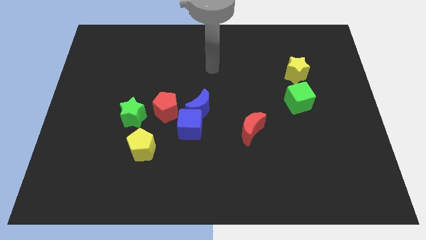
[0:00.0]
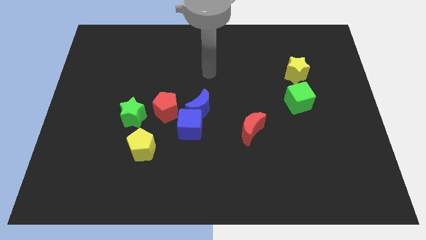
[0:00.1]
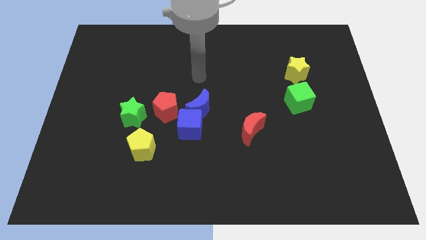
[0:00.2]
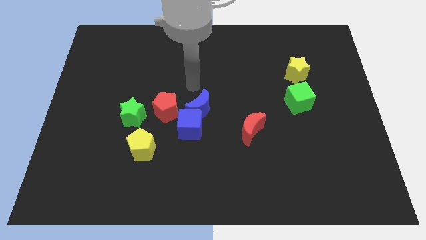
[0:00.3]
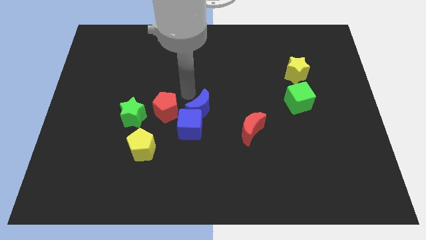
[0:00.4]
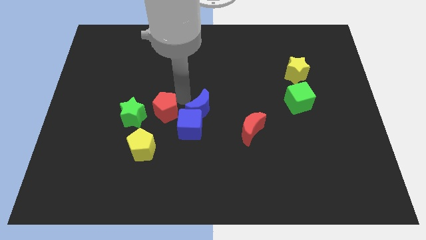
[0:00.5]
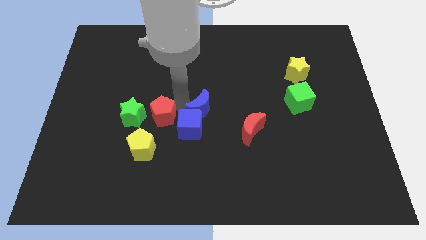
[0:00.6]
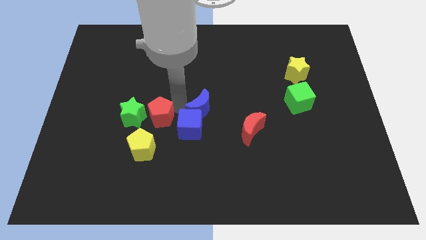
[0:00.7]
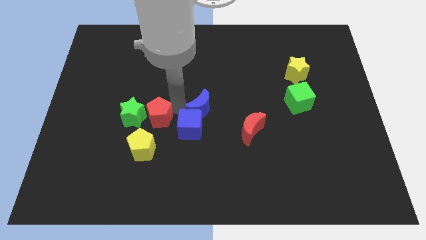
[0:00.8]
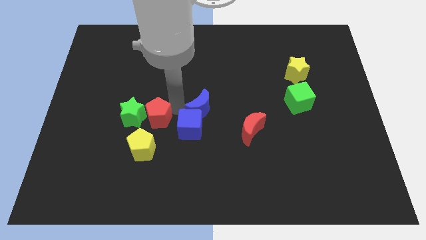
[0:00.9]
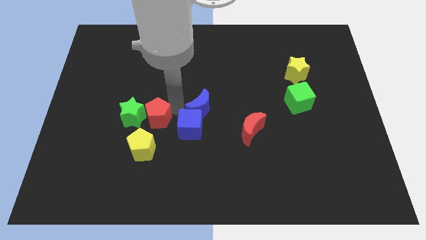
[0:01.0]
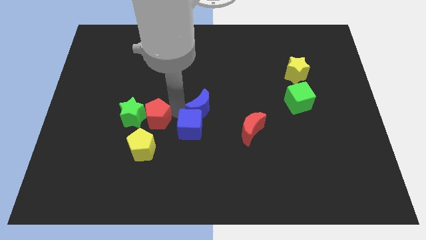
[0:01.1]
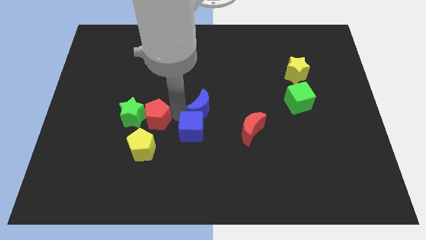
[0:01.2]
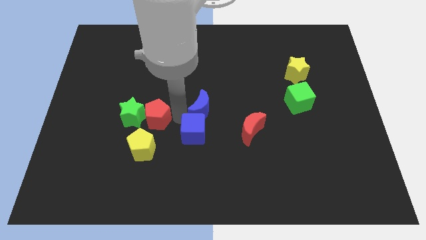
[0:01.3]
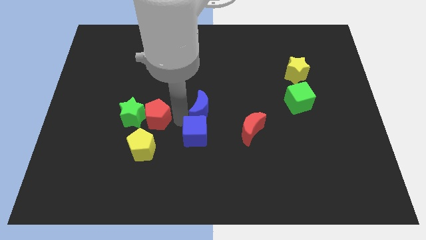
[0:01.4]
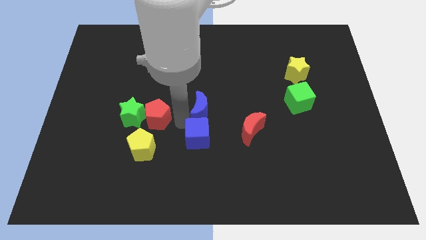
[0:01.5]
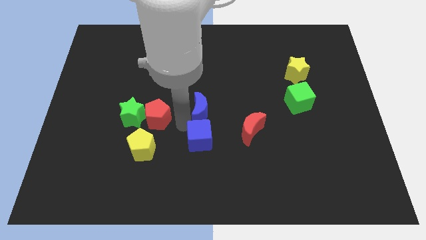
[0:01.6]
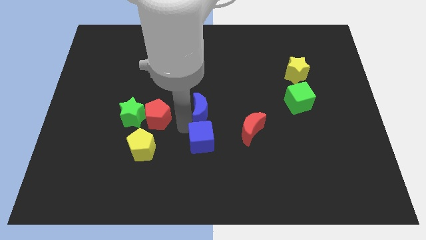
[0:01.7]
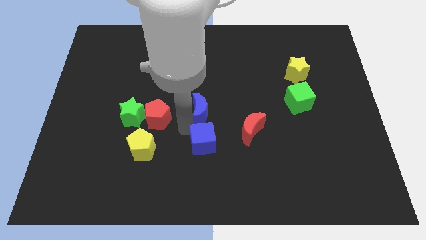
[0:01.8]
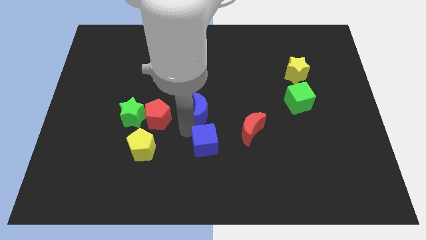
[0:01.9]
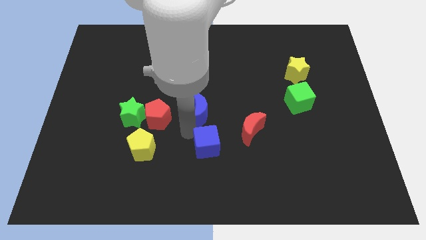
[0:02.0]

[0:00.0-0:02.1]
move the blue cube away from the blue moon and red pentagon

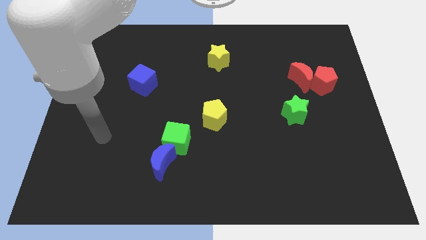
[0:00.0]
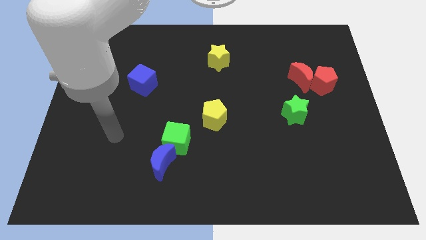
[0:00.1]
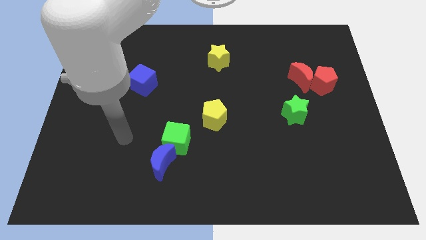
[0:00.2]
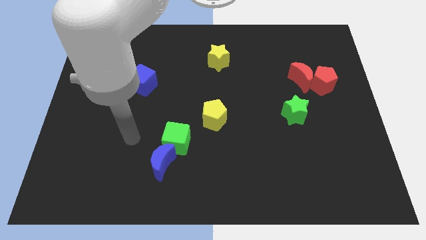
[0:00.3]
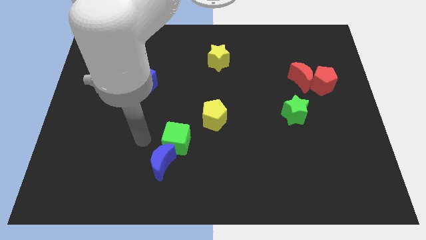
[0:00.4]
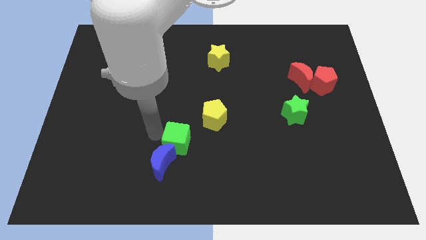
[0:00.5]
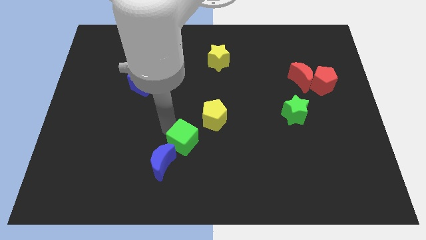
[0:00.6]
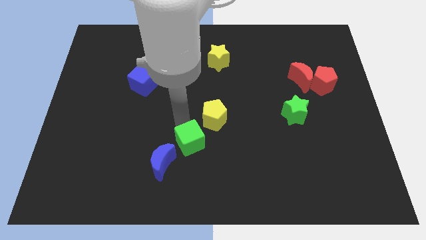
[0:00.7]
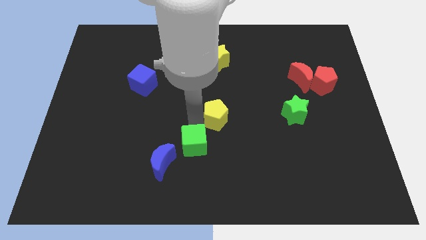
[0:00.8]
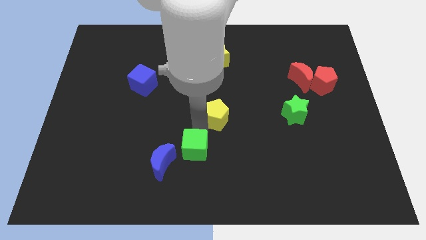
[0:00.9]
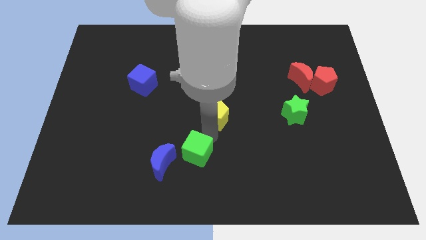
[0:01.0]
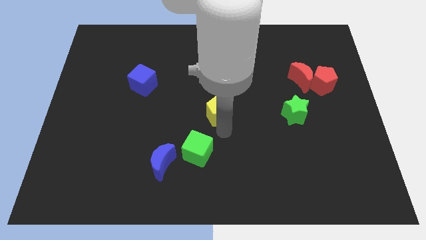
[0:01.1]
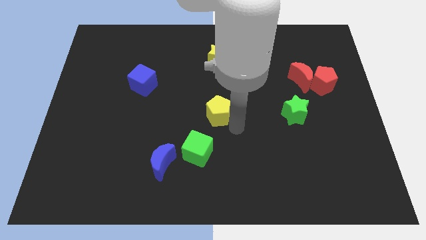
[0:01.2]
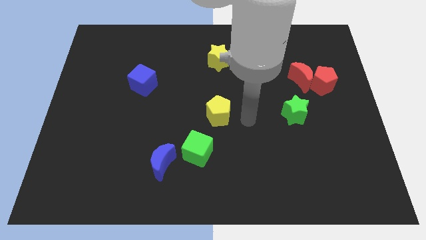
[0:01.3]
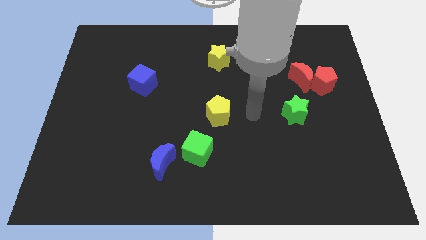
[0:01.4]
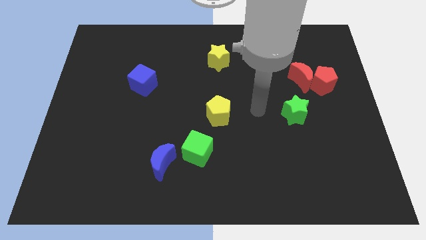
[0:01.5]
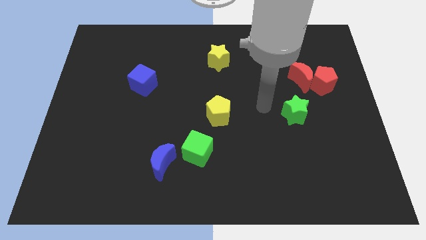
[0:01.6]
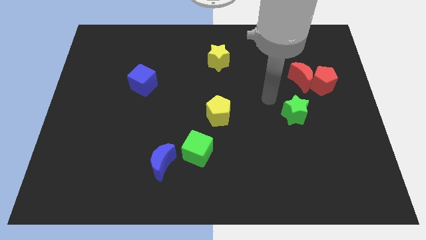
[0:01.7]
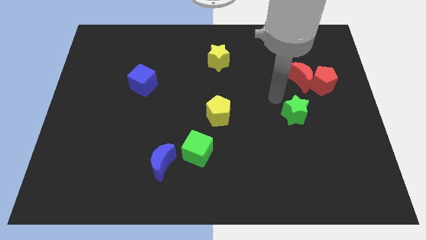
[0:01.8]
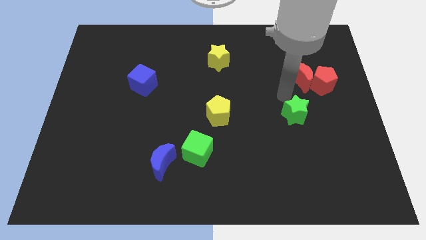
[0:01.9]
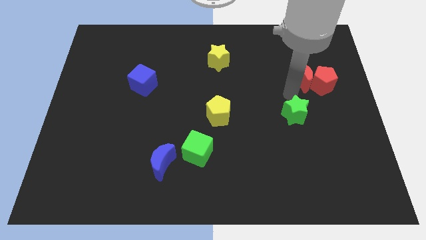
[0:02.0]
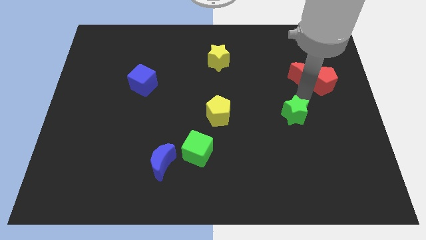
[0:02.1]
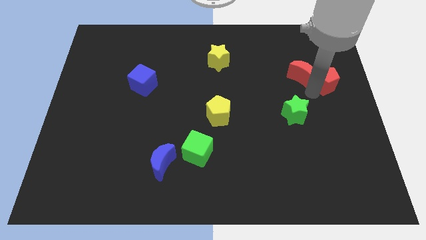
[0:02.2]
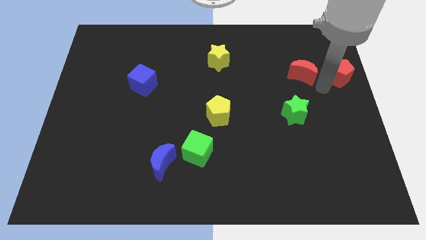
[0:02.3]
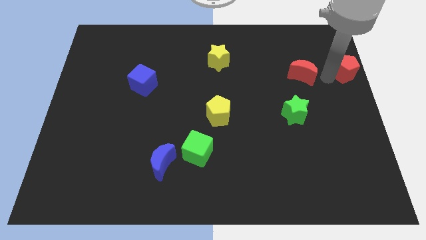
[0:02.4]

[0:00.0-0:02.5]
separate the red moon from the red pentagon

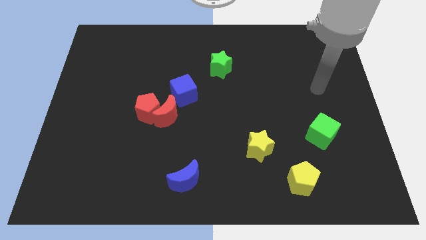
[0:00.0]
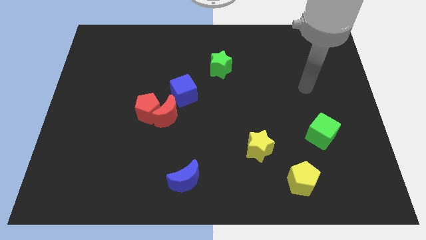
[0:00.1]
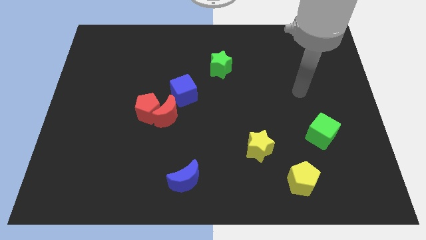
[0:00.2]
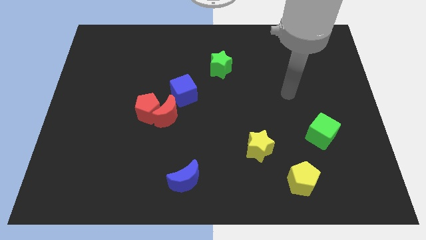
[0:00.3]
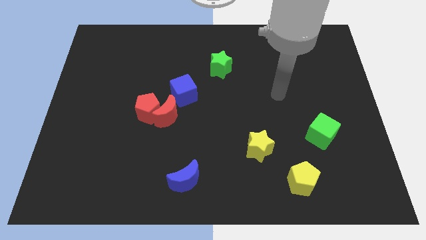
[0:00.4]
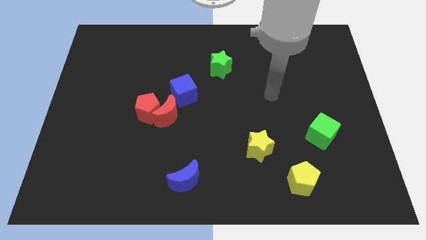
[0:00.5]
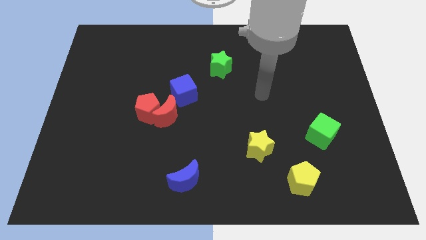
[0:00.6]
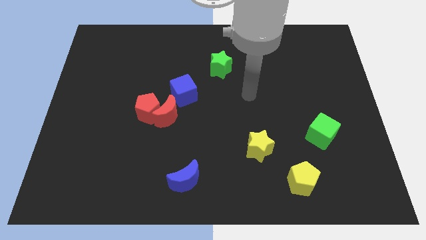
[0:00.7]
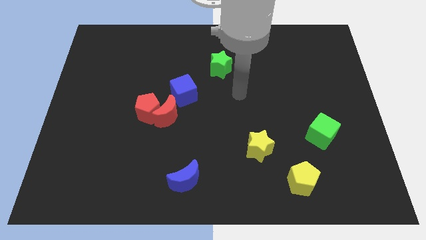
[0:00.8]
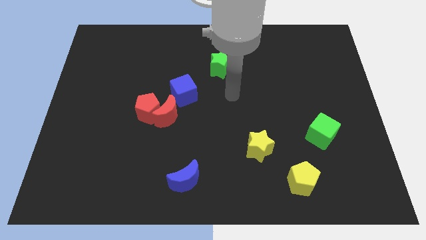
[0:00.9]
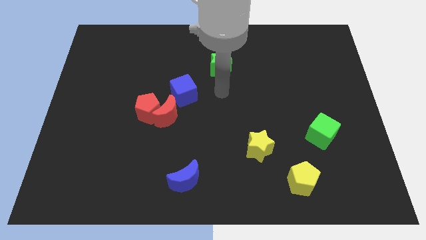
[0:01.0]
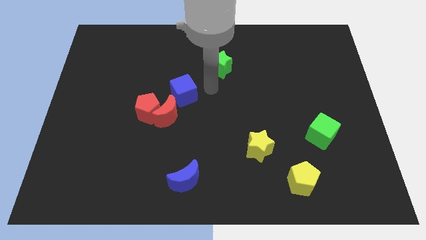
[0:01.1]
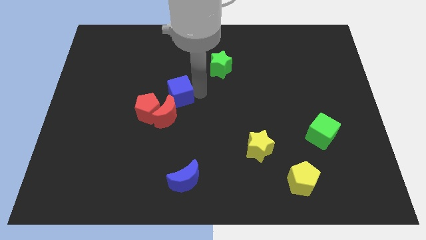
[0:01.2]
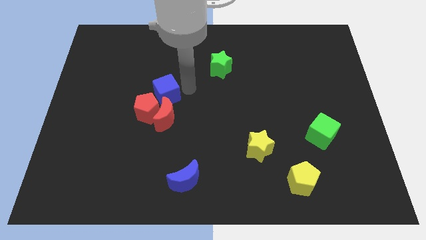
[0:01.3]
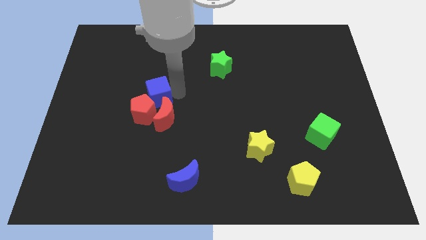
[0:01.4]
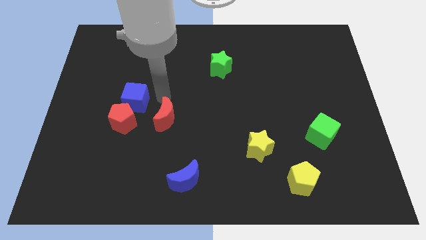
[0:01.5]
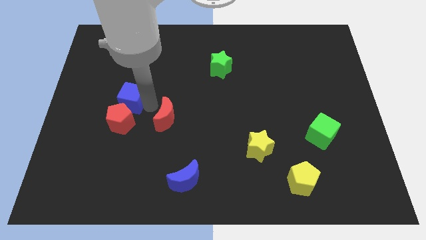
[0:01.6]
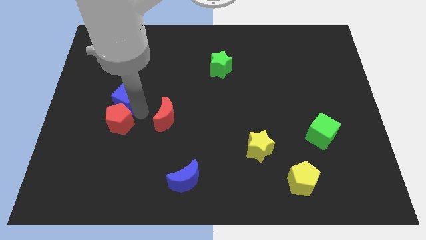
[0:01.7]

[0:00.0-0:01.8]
move the red moon away from the red pentagon and blue cube

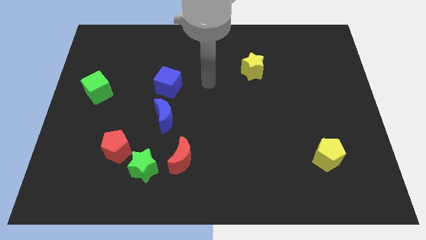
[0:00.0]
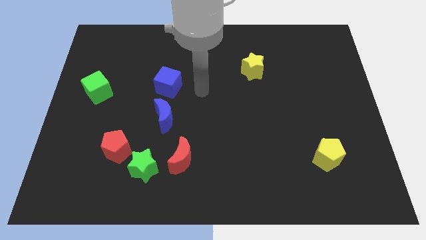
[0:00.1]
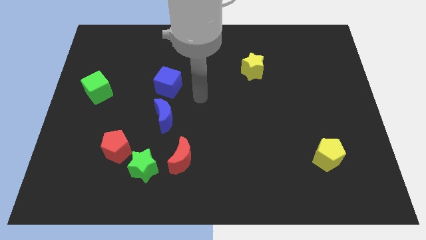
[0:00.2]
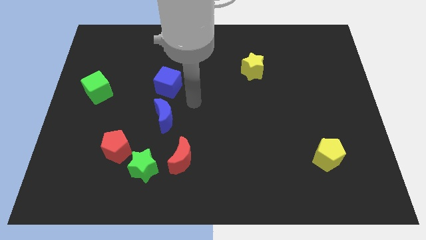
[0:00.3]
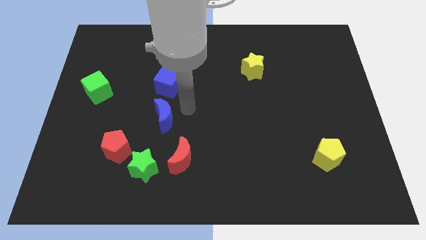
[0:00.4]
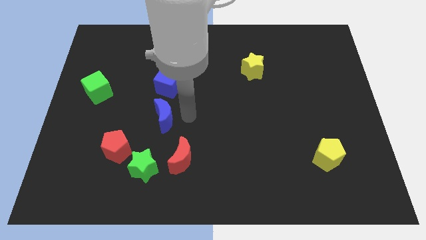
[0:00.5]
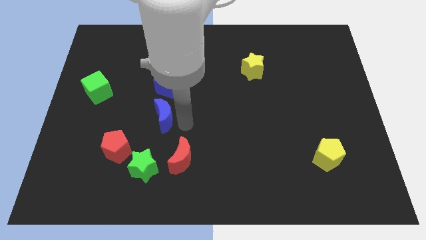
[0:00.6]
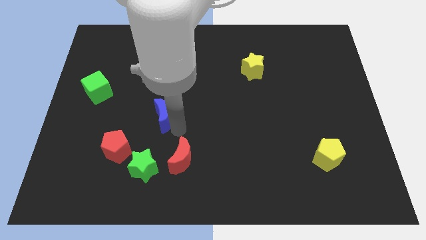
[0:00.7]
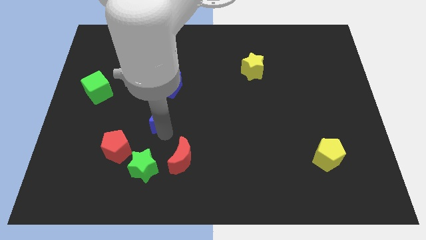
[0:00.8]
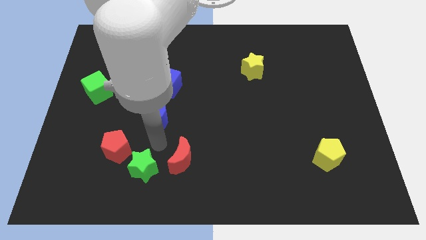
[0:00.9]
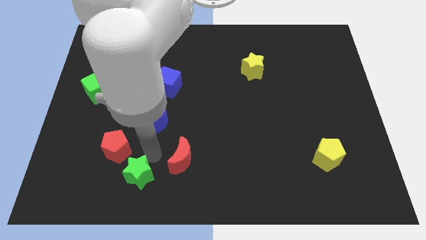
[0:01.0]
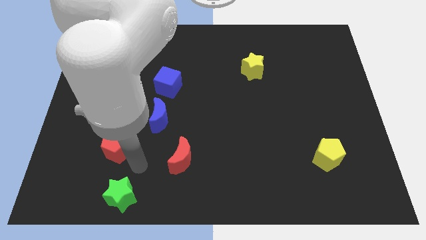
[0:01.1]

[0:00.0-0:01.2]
separate the red pentagon from the green star

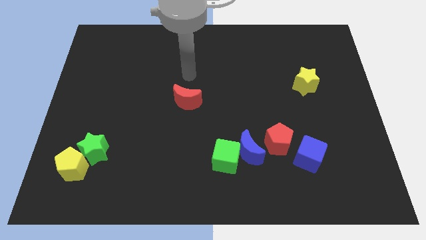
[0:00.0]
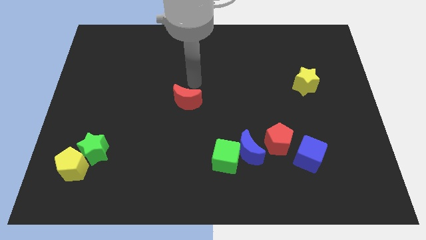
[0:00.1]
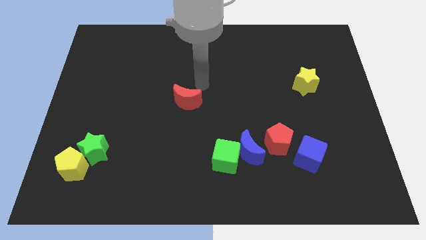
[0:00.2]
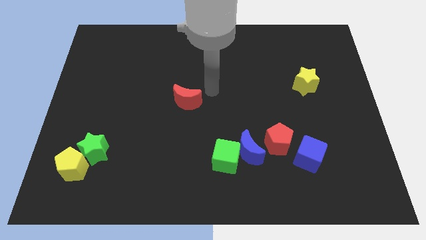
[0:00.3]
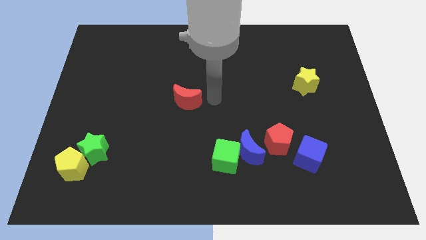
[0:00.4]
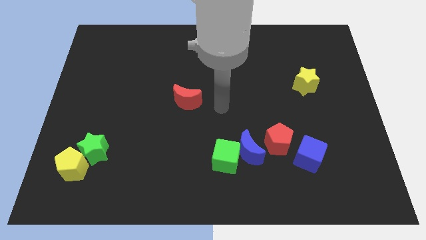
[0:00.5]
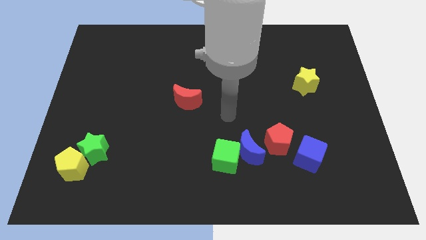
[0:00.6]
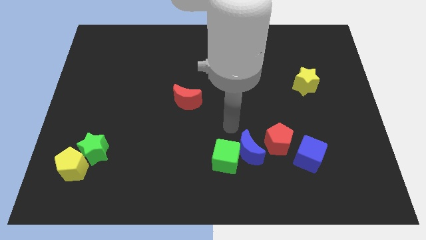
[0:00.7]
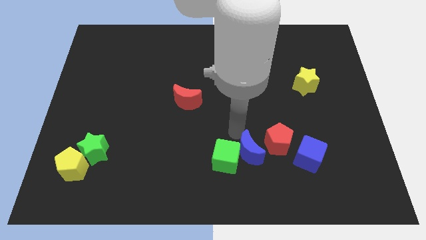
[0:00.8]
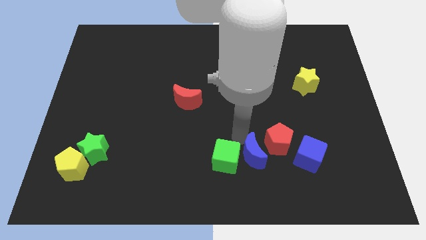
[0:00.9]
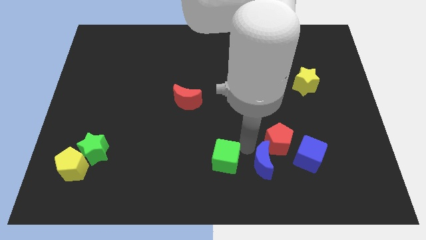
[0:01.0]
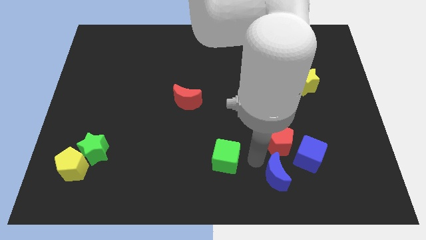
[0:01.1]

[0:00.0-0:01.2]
move the green cube away from the blue moon

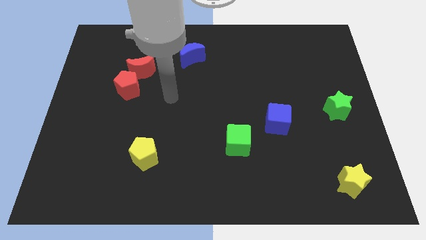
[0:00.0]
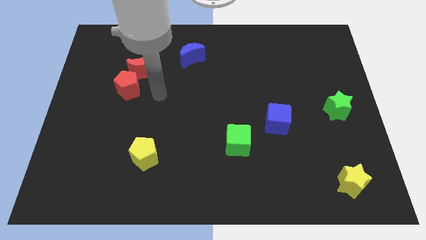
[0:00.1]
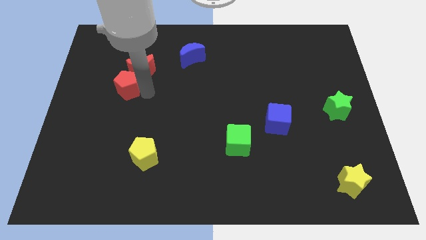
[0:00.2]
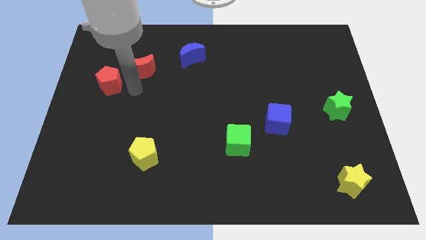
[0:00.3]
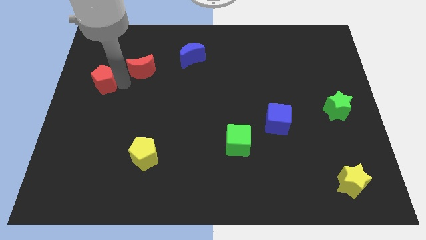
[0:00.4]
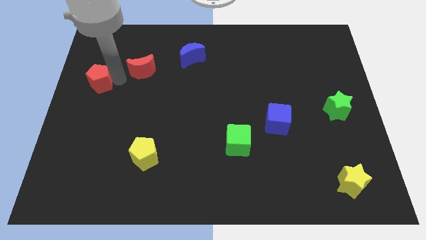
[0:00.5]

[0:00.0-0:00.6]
move the red moon away from the red pentagon
